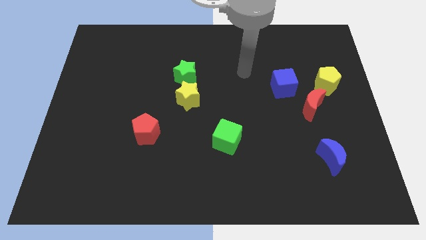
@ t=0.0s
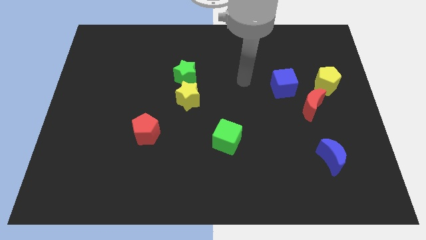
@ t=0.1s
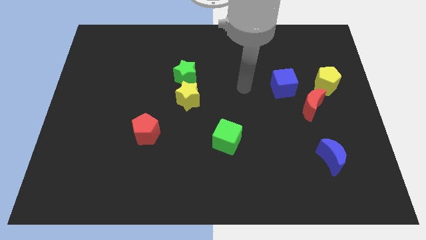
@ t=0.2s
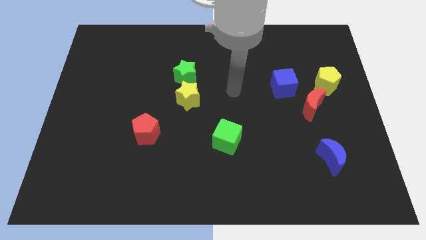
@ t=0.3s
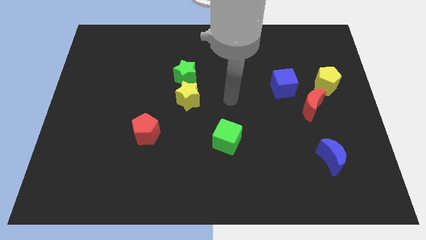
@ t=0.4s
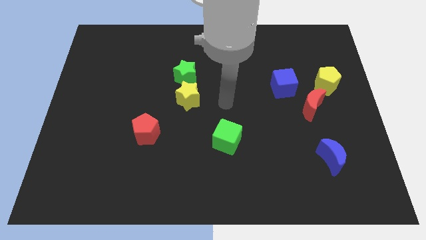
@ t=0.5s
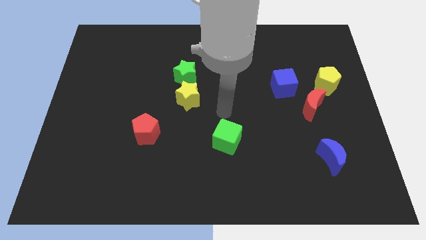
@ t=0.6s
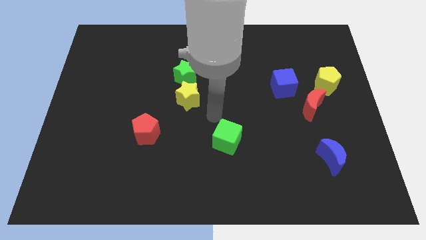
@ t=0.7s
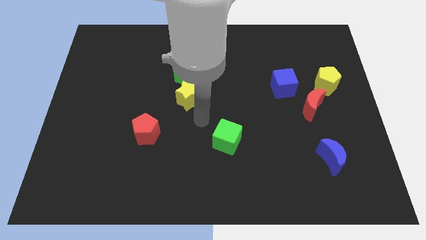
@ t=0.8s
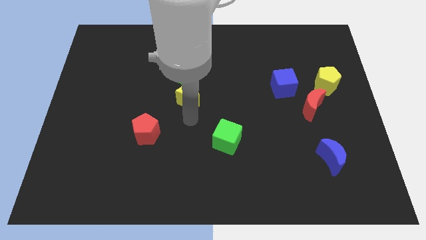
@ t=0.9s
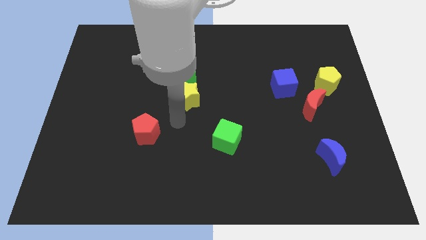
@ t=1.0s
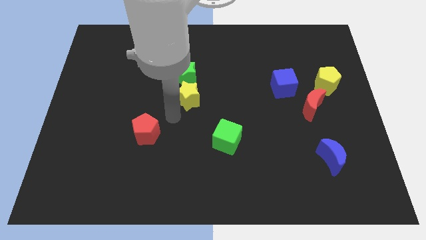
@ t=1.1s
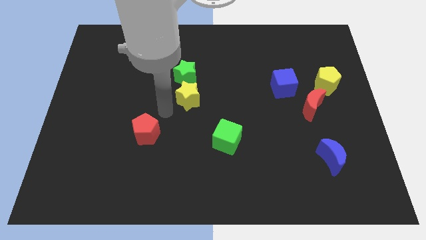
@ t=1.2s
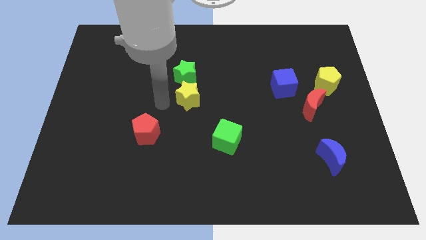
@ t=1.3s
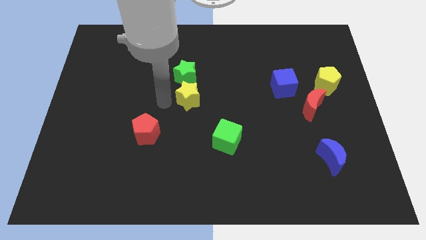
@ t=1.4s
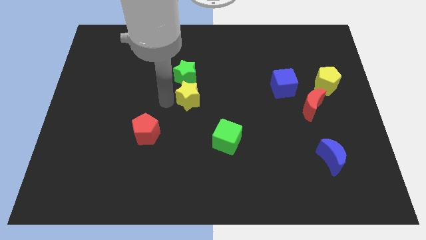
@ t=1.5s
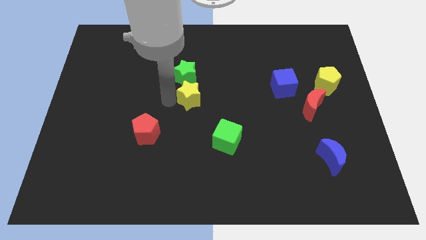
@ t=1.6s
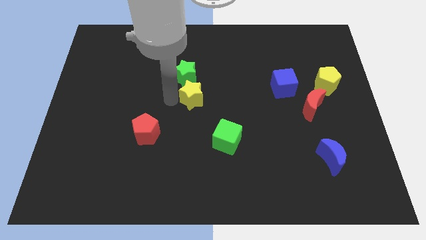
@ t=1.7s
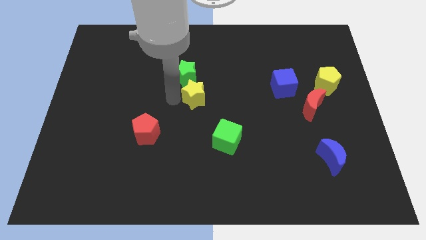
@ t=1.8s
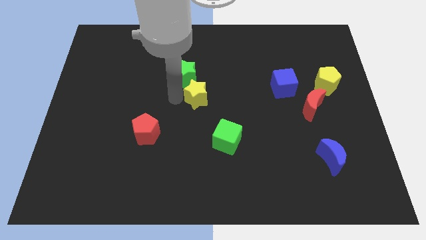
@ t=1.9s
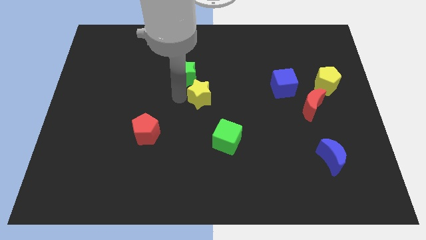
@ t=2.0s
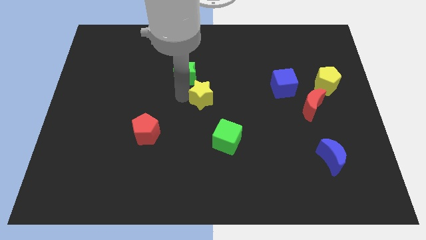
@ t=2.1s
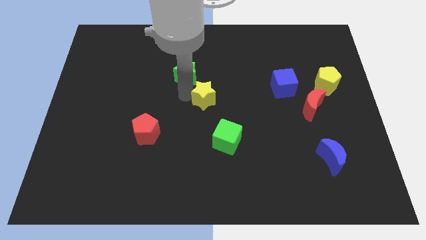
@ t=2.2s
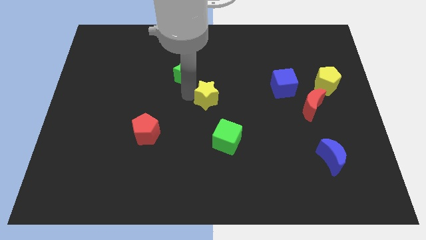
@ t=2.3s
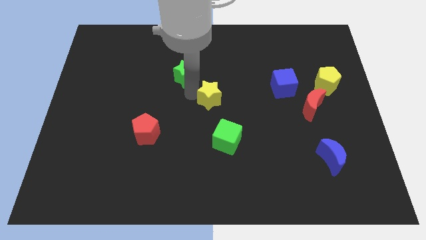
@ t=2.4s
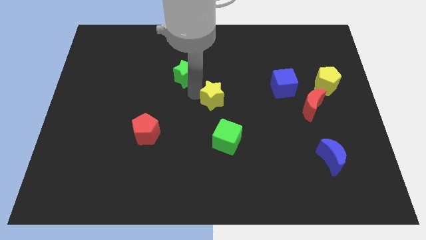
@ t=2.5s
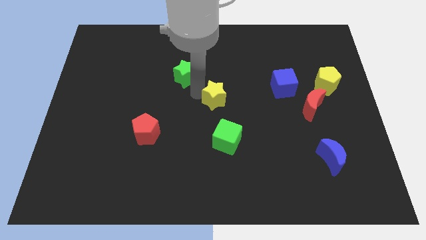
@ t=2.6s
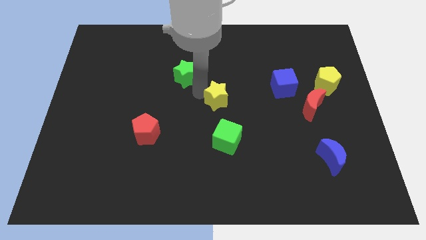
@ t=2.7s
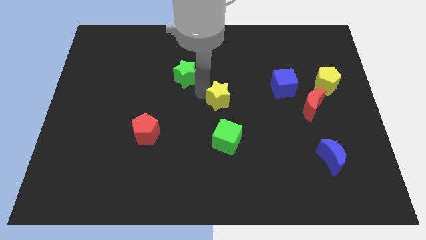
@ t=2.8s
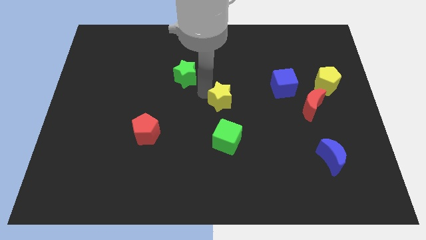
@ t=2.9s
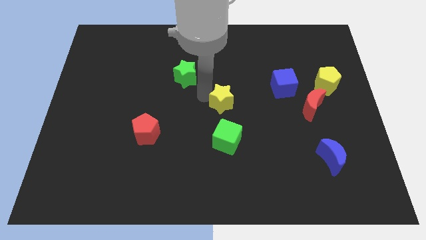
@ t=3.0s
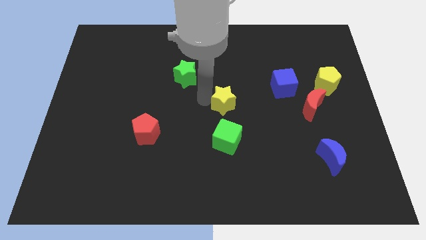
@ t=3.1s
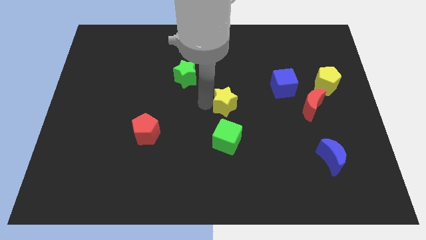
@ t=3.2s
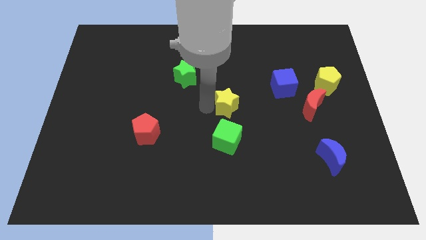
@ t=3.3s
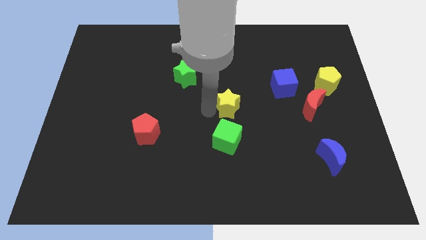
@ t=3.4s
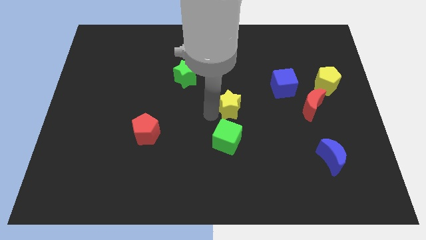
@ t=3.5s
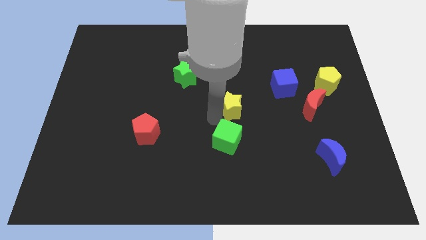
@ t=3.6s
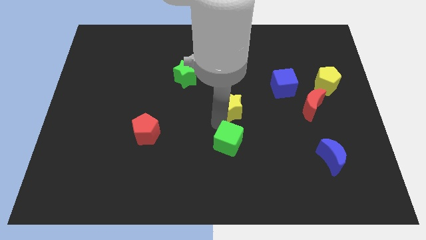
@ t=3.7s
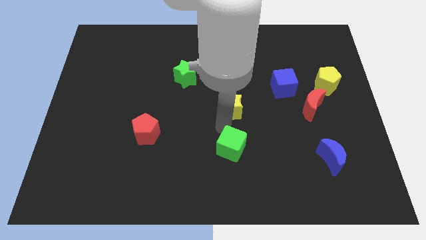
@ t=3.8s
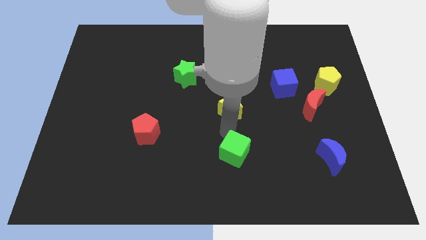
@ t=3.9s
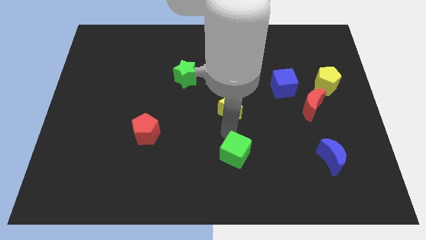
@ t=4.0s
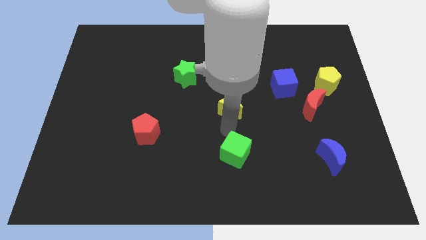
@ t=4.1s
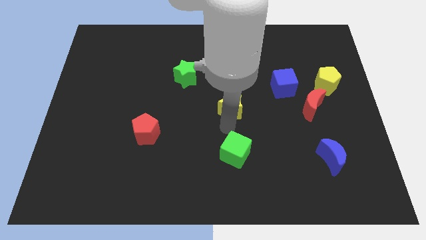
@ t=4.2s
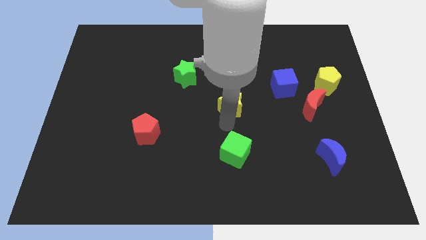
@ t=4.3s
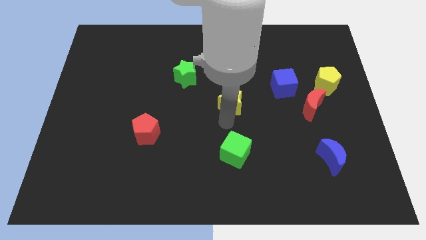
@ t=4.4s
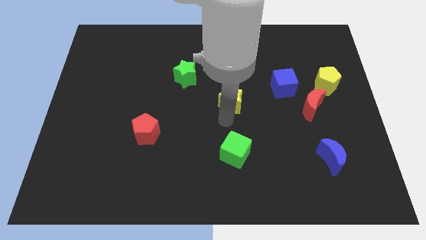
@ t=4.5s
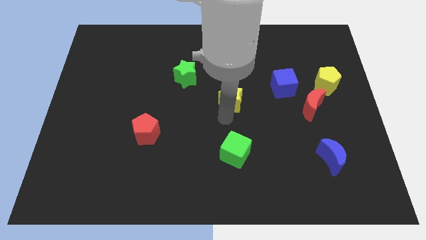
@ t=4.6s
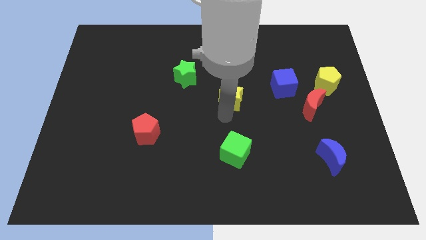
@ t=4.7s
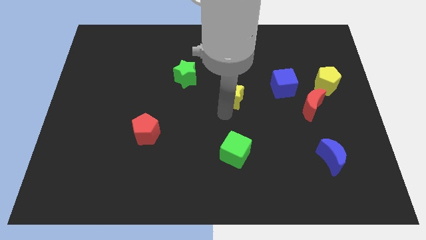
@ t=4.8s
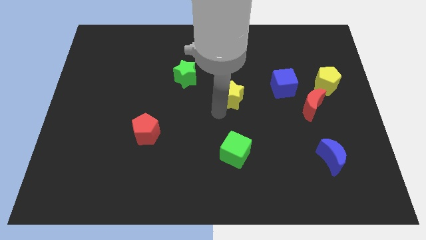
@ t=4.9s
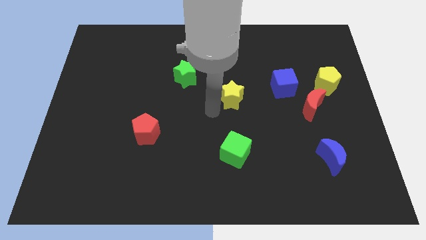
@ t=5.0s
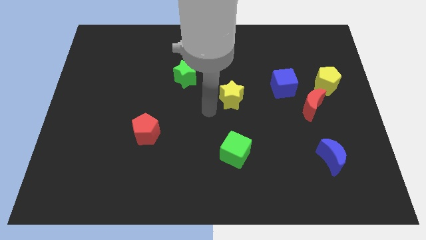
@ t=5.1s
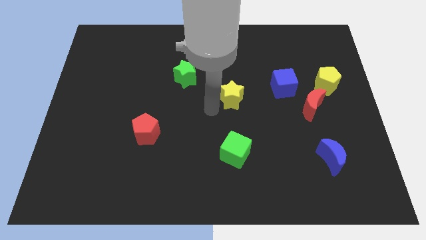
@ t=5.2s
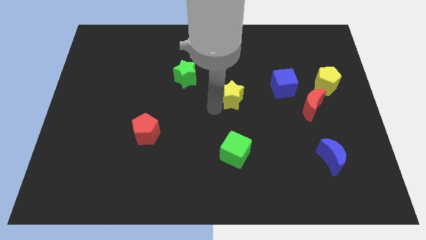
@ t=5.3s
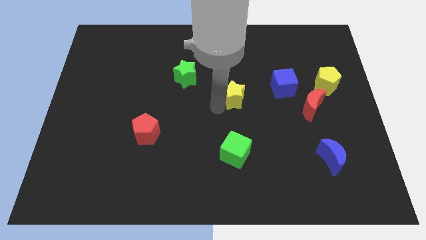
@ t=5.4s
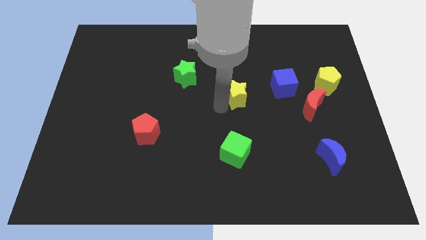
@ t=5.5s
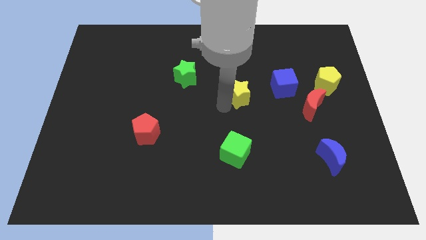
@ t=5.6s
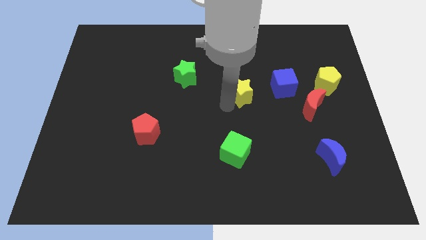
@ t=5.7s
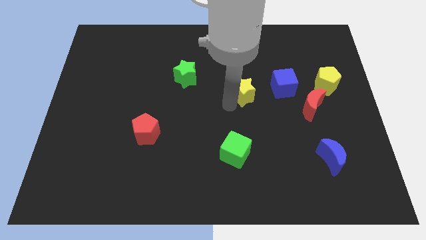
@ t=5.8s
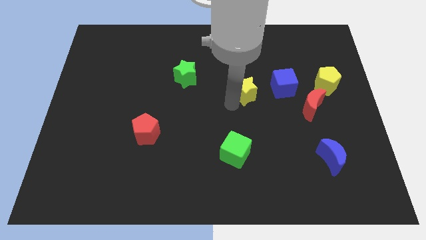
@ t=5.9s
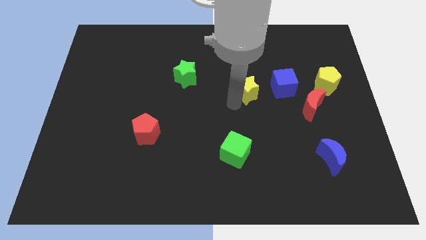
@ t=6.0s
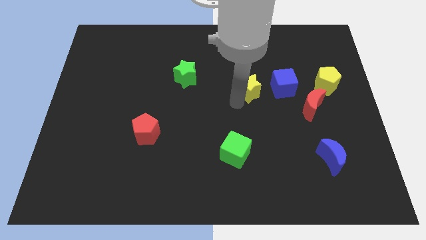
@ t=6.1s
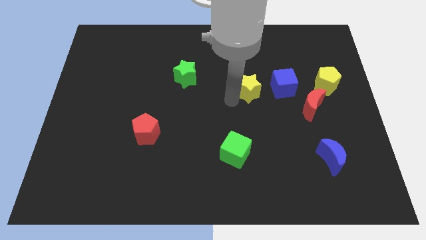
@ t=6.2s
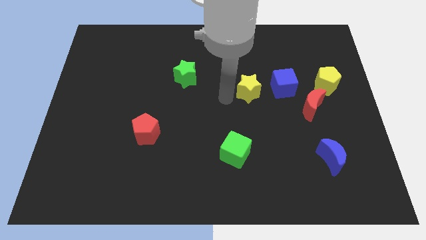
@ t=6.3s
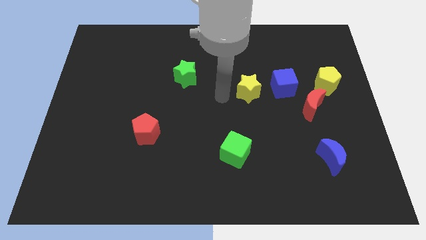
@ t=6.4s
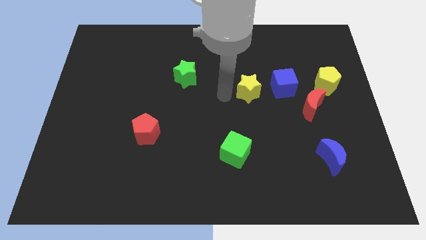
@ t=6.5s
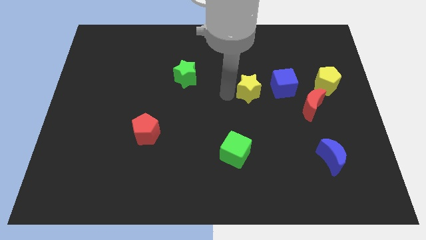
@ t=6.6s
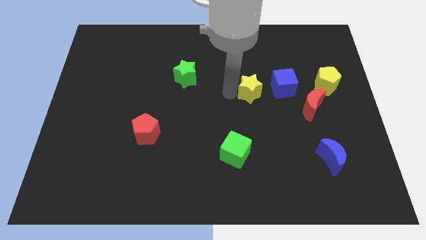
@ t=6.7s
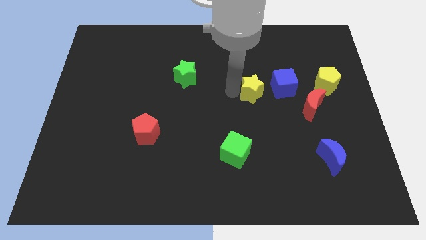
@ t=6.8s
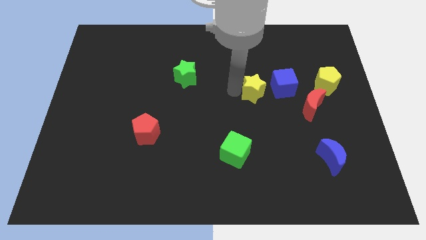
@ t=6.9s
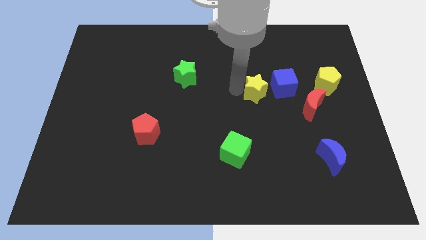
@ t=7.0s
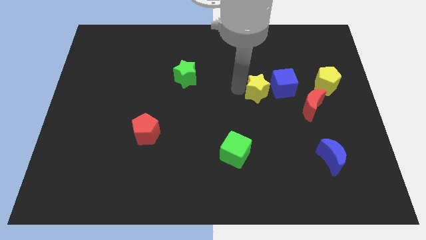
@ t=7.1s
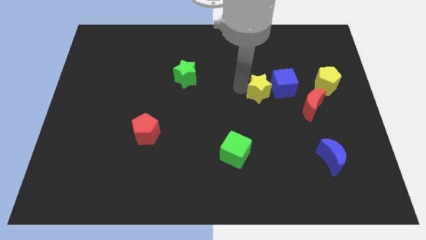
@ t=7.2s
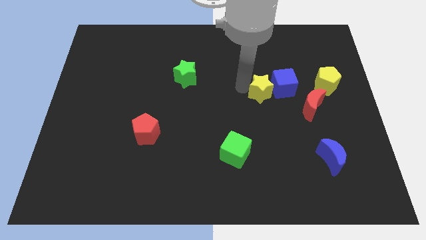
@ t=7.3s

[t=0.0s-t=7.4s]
put the yellow star close to the blue cube
